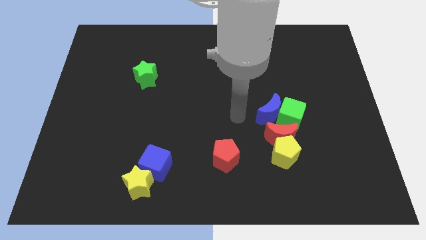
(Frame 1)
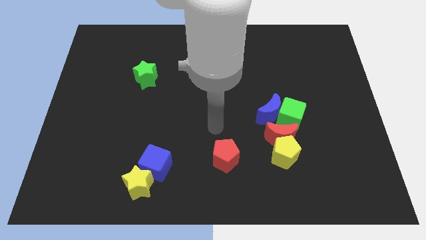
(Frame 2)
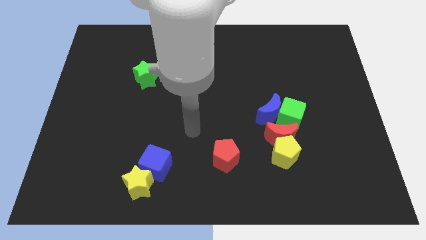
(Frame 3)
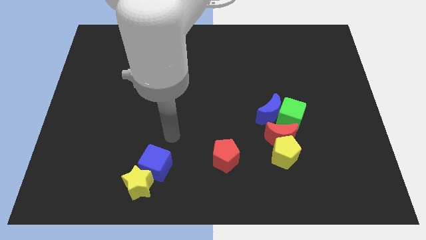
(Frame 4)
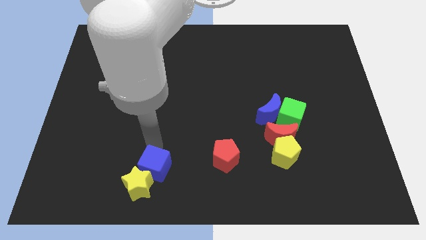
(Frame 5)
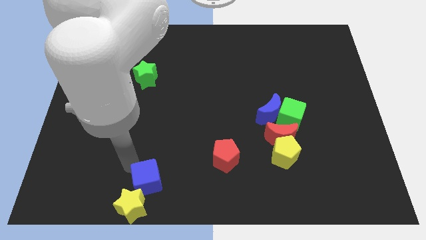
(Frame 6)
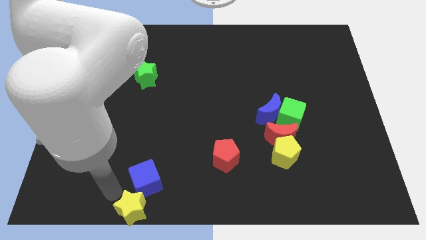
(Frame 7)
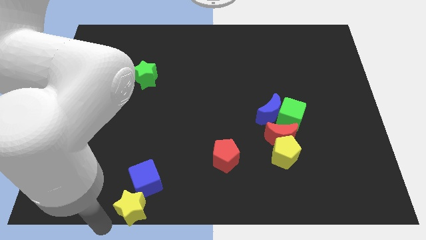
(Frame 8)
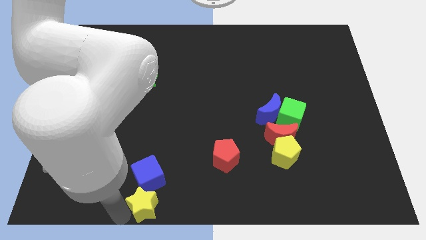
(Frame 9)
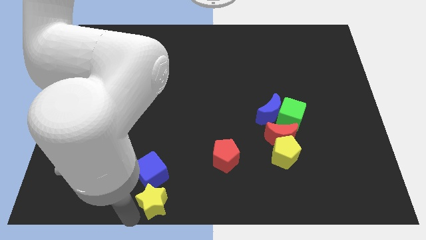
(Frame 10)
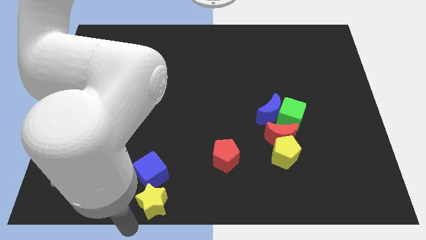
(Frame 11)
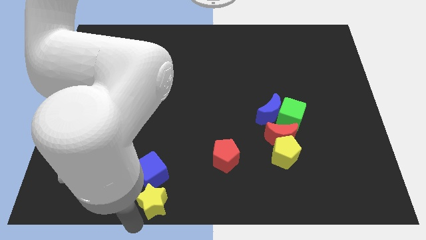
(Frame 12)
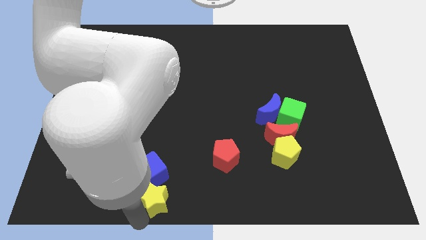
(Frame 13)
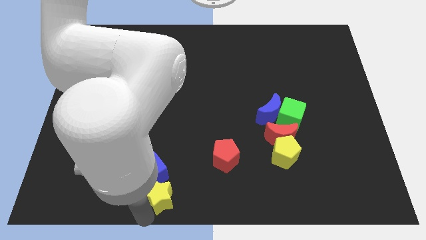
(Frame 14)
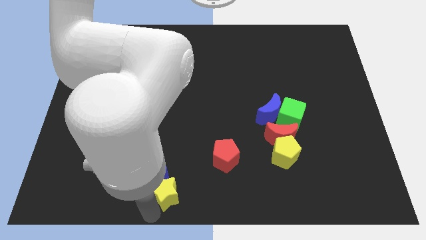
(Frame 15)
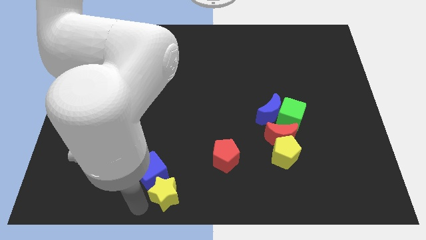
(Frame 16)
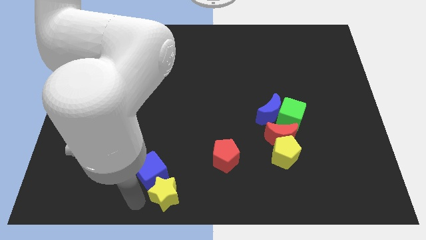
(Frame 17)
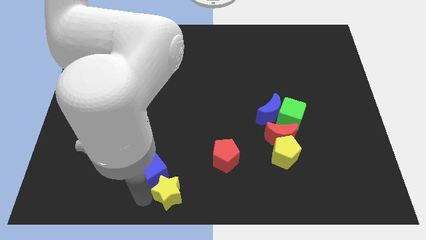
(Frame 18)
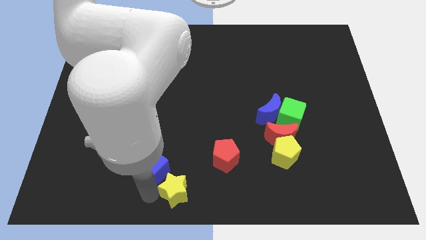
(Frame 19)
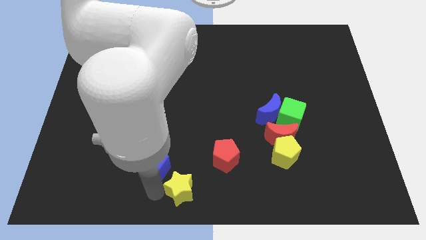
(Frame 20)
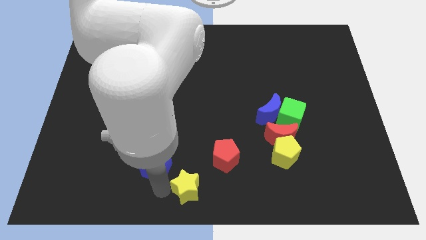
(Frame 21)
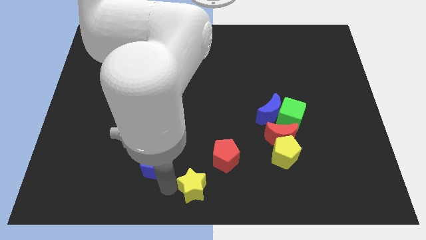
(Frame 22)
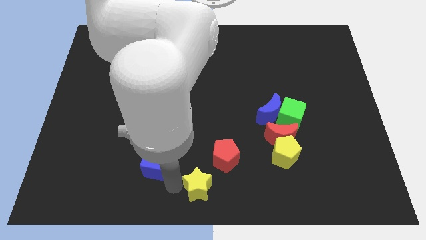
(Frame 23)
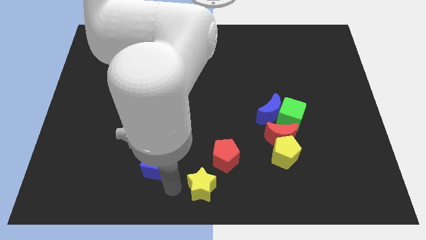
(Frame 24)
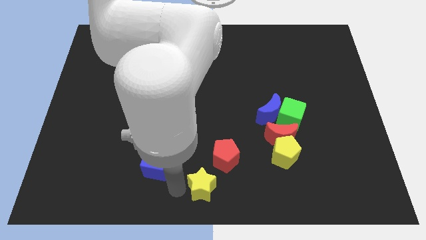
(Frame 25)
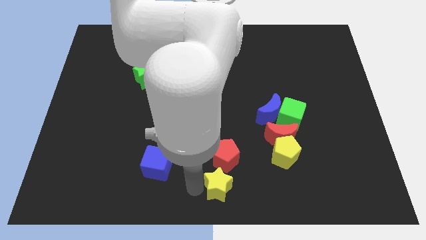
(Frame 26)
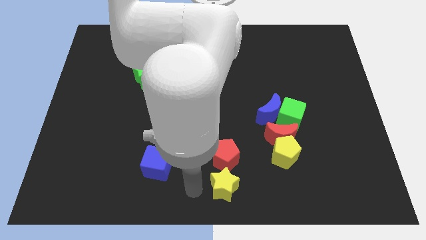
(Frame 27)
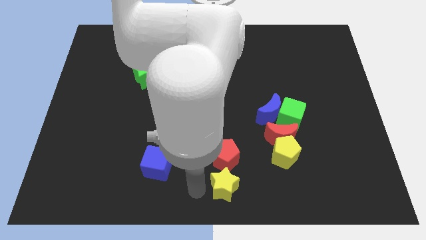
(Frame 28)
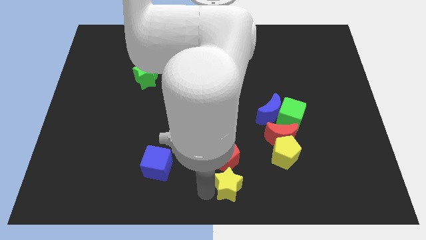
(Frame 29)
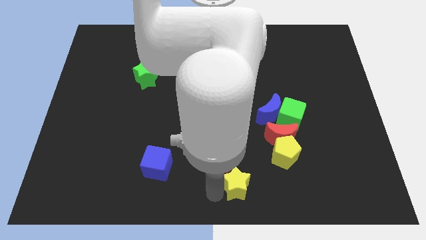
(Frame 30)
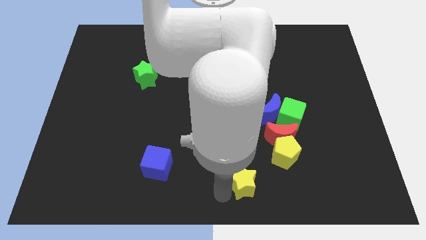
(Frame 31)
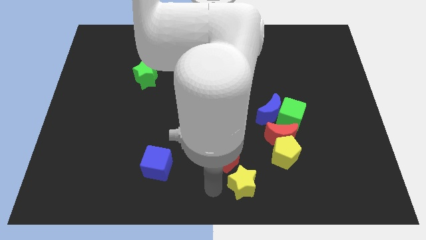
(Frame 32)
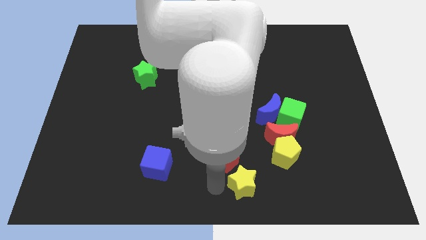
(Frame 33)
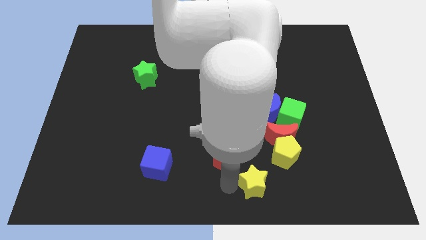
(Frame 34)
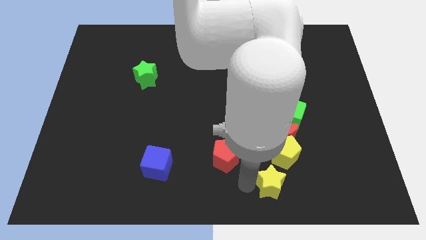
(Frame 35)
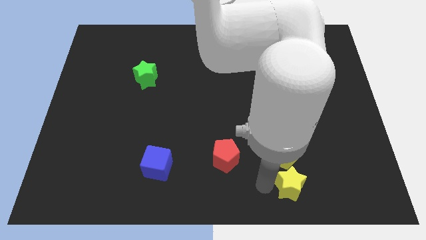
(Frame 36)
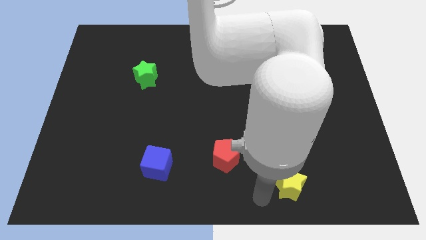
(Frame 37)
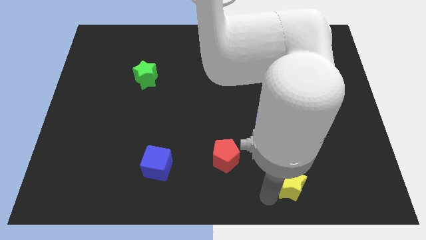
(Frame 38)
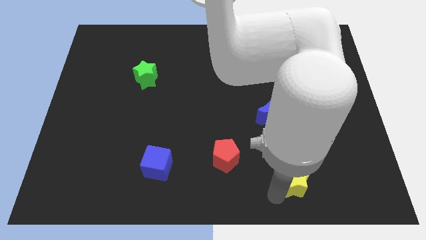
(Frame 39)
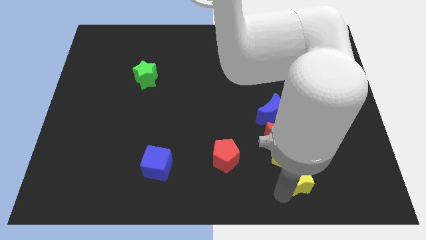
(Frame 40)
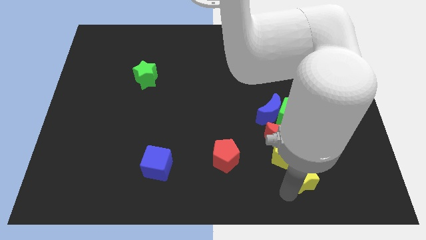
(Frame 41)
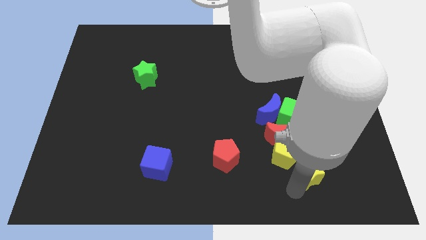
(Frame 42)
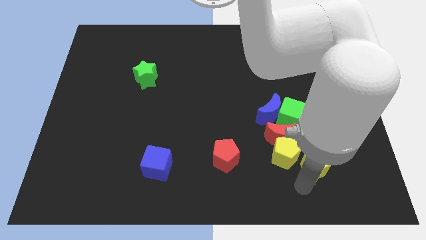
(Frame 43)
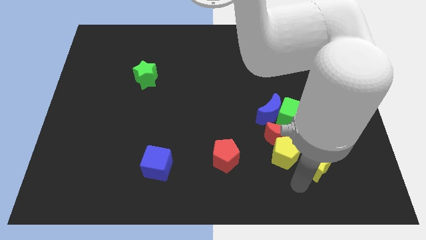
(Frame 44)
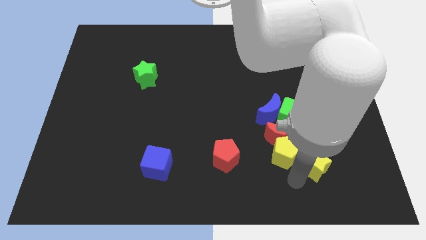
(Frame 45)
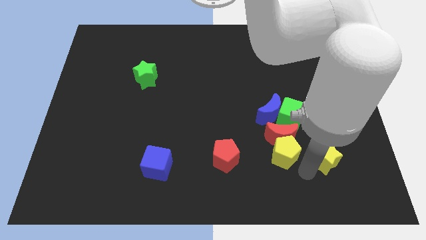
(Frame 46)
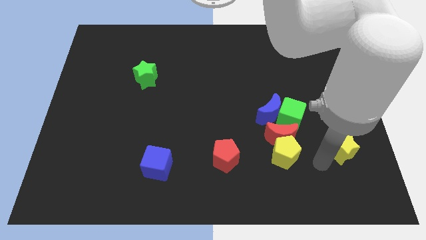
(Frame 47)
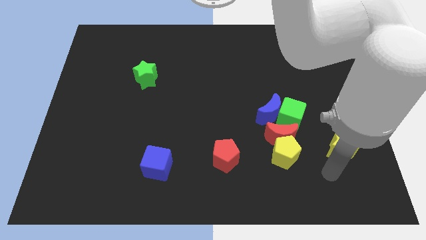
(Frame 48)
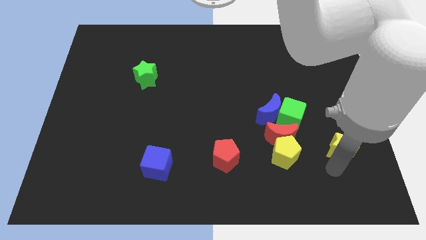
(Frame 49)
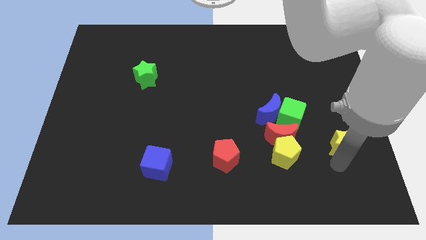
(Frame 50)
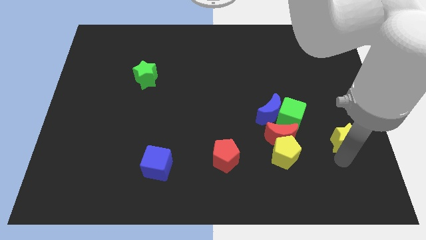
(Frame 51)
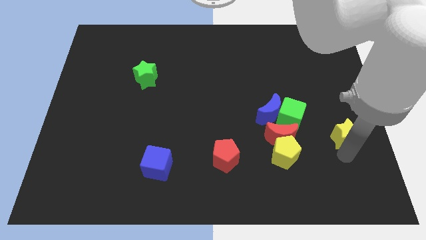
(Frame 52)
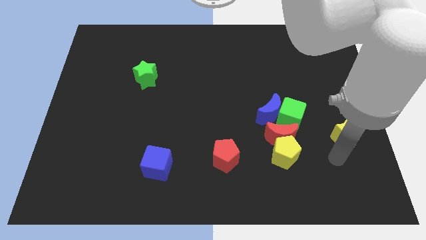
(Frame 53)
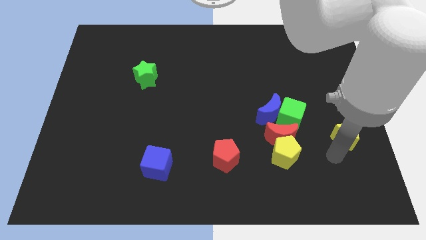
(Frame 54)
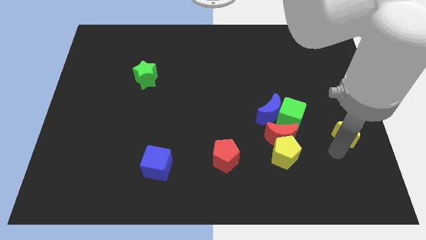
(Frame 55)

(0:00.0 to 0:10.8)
move the yellow star to the right side of the board
